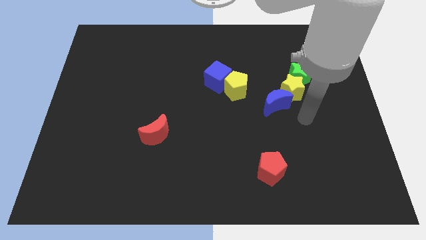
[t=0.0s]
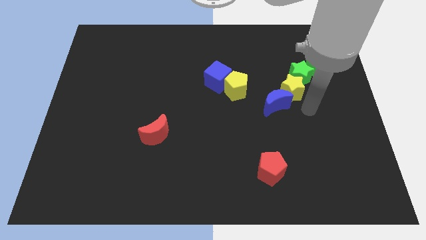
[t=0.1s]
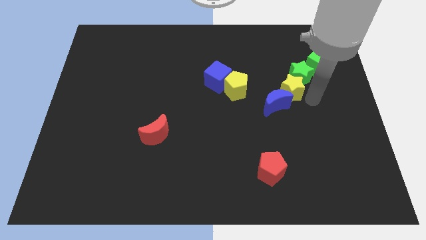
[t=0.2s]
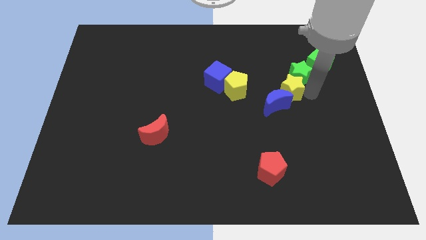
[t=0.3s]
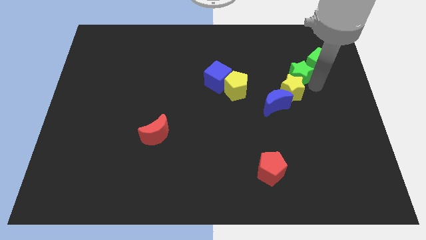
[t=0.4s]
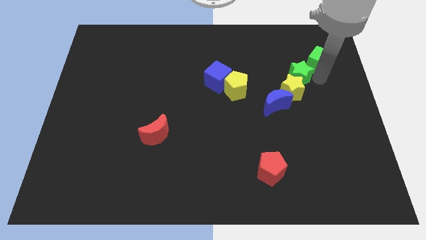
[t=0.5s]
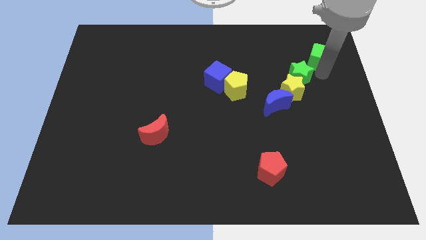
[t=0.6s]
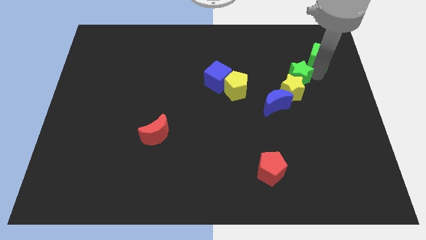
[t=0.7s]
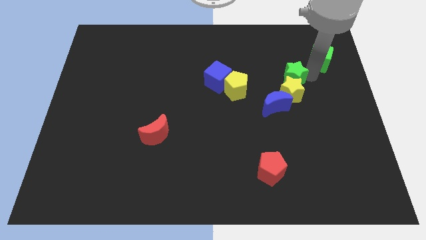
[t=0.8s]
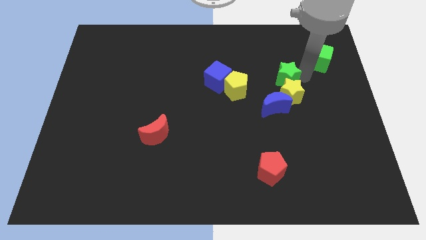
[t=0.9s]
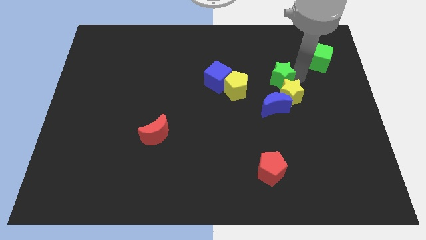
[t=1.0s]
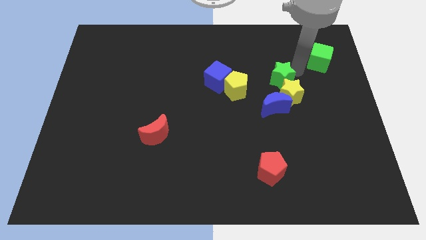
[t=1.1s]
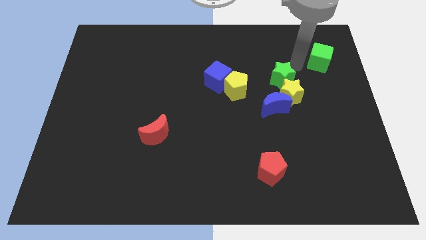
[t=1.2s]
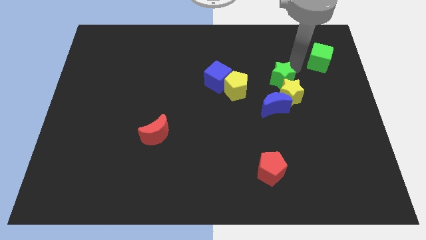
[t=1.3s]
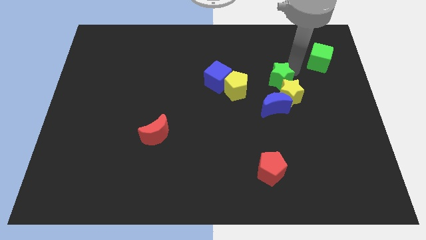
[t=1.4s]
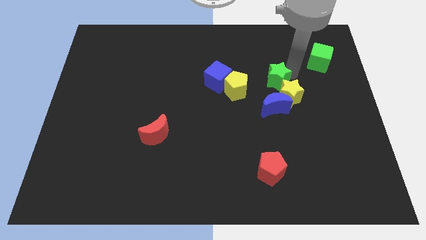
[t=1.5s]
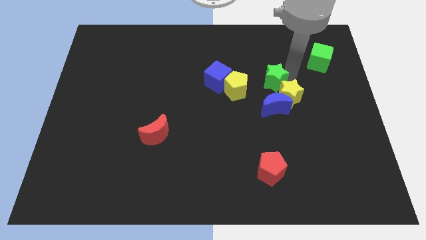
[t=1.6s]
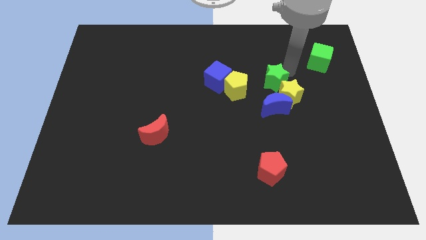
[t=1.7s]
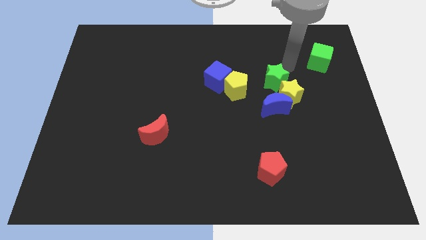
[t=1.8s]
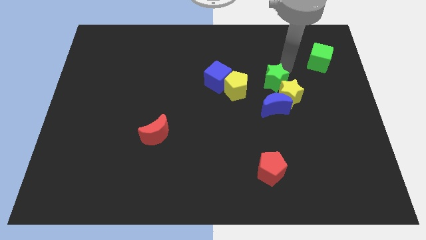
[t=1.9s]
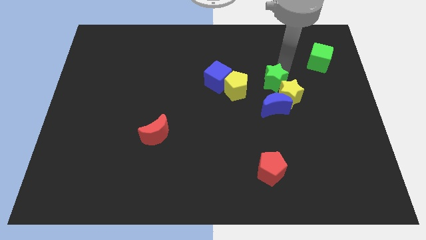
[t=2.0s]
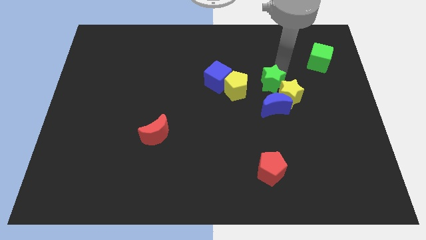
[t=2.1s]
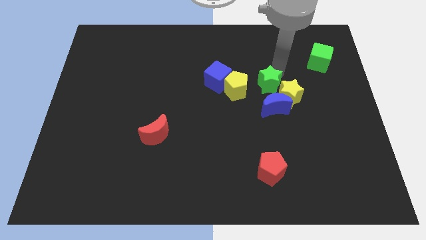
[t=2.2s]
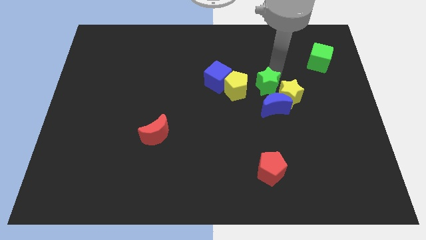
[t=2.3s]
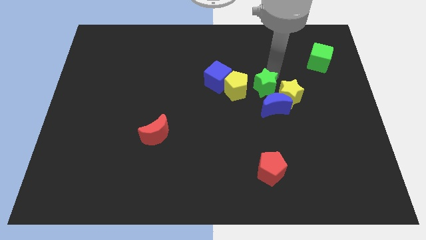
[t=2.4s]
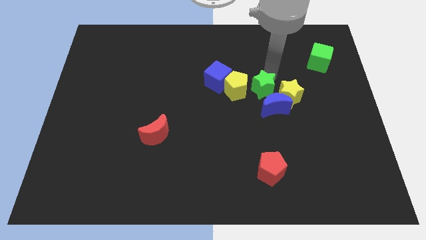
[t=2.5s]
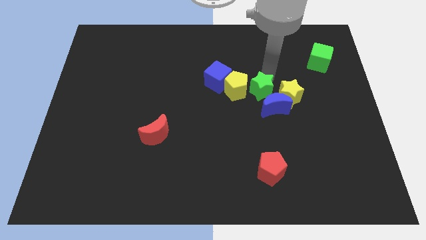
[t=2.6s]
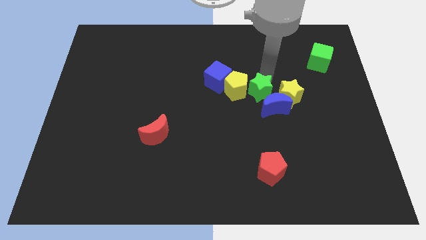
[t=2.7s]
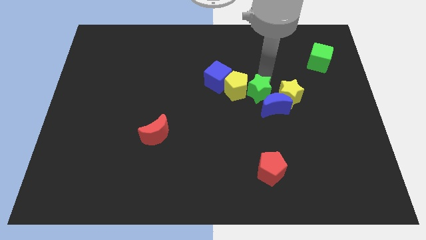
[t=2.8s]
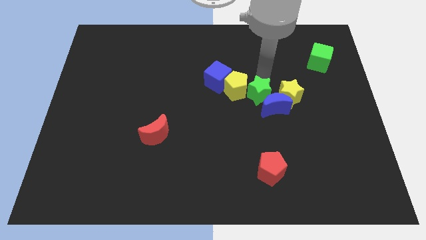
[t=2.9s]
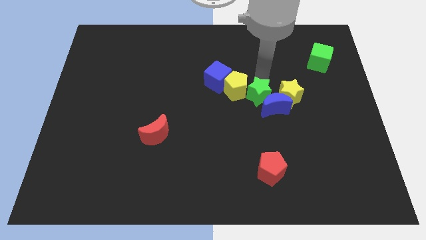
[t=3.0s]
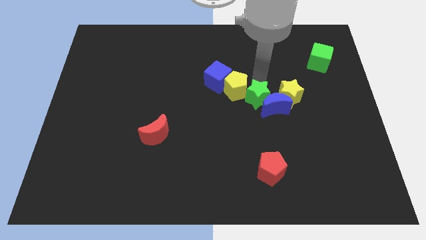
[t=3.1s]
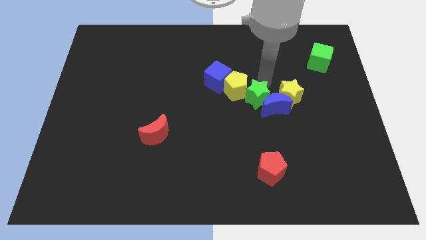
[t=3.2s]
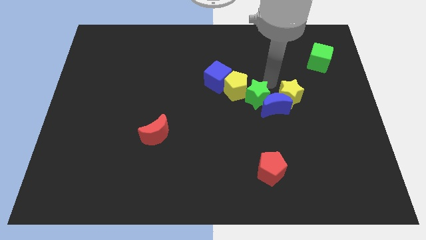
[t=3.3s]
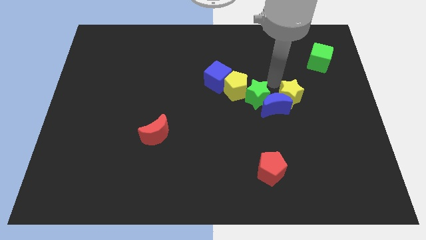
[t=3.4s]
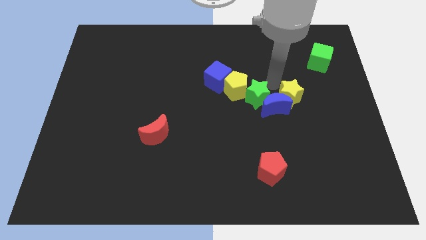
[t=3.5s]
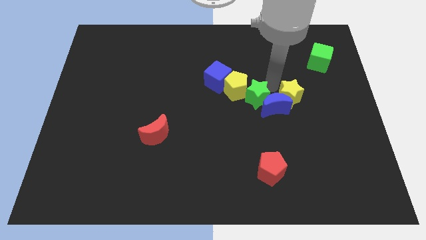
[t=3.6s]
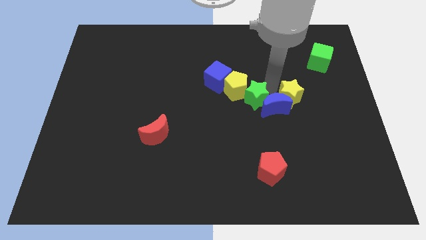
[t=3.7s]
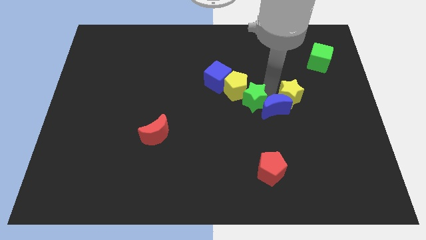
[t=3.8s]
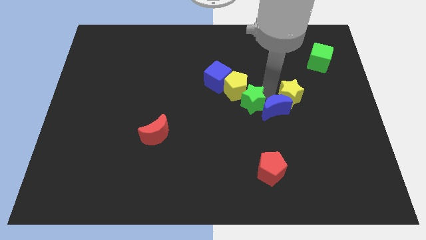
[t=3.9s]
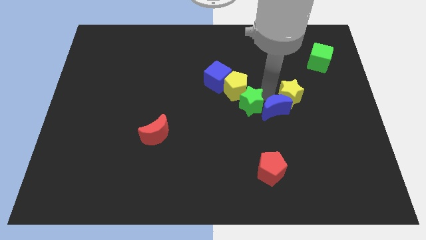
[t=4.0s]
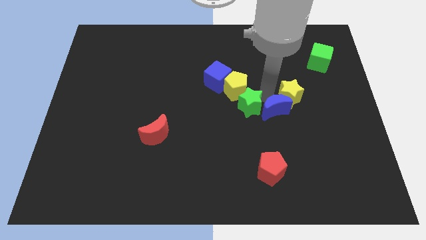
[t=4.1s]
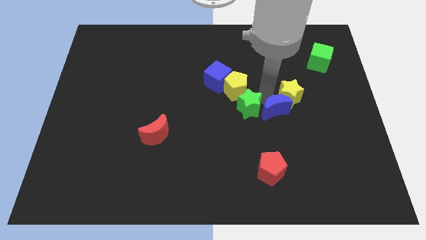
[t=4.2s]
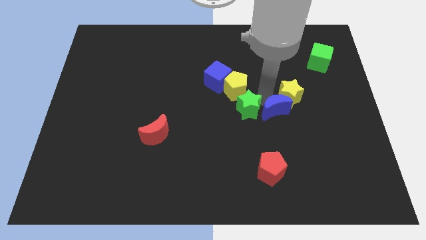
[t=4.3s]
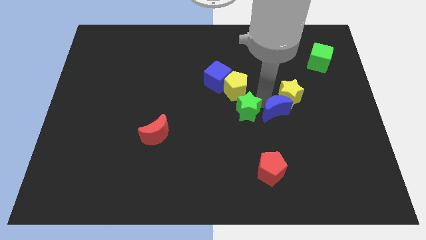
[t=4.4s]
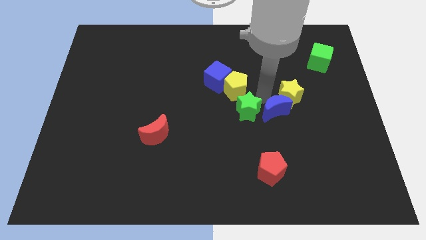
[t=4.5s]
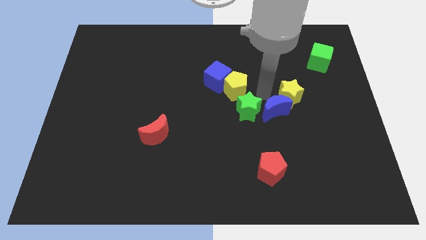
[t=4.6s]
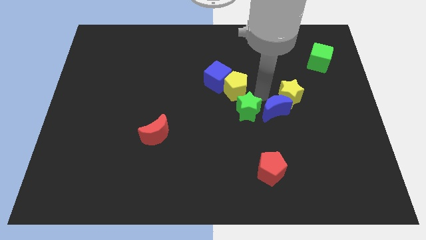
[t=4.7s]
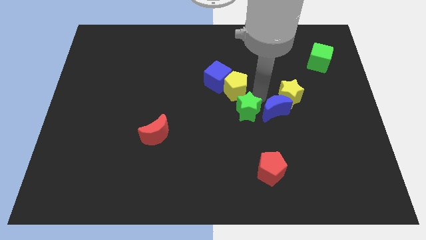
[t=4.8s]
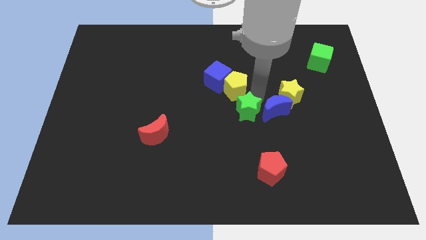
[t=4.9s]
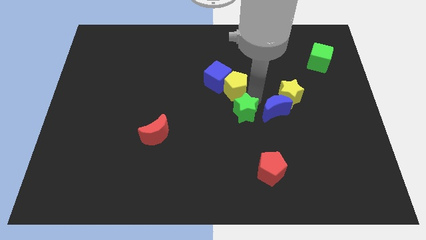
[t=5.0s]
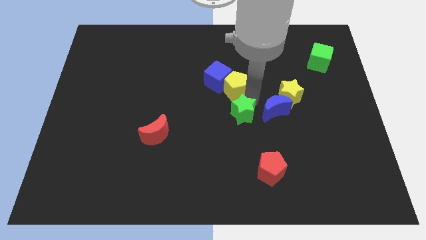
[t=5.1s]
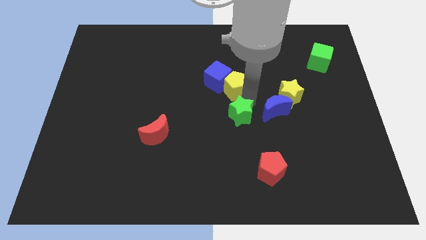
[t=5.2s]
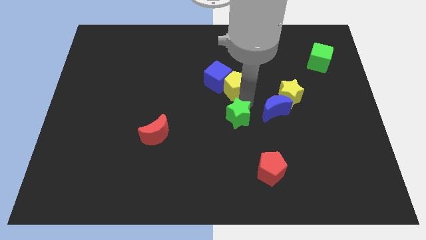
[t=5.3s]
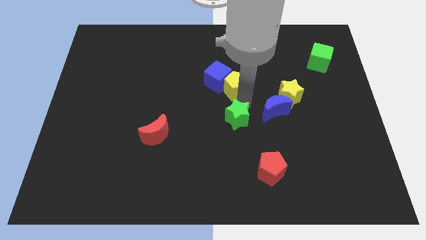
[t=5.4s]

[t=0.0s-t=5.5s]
push the green star diagonally downwards and to the left

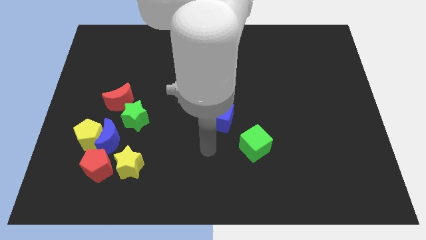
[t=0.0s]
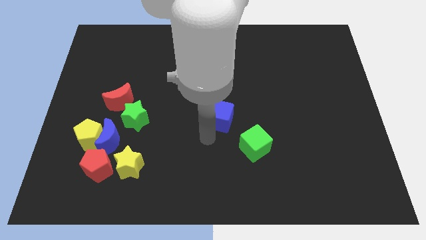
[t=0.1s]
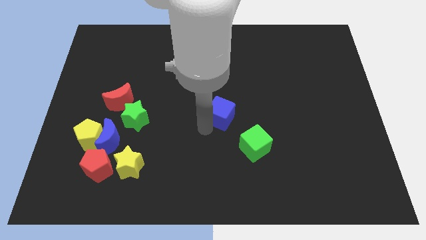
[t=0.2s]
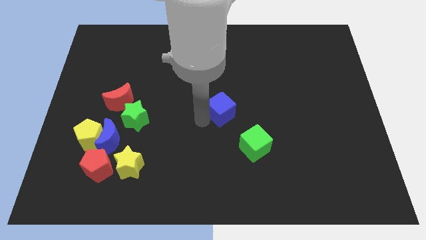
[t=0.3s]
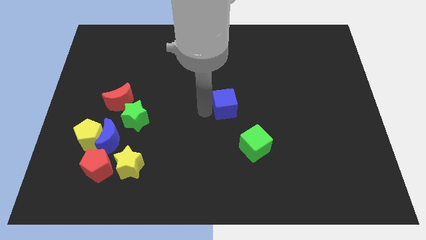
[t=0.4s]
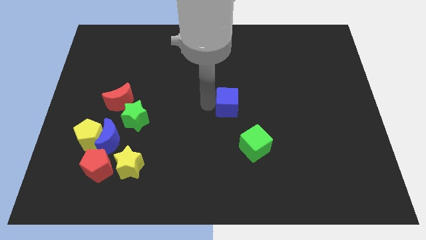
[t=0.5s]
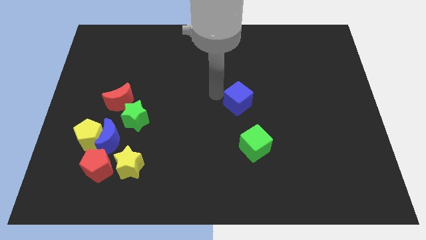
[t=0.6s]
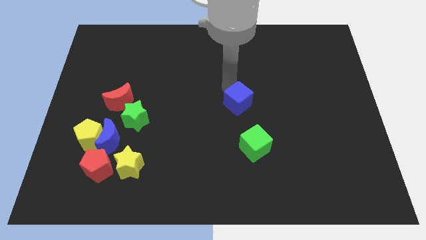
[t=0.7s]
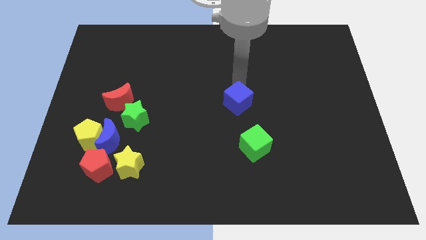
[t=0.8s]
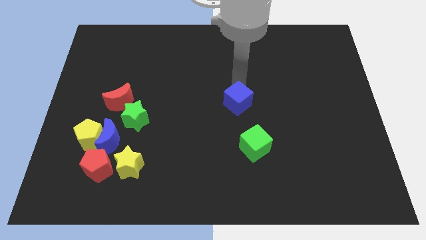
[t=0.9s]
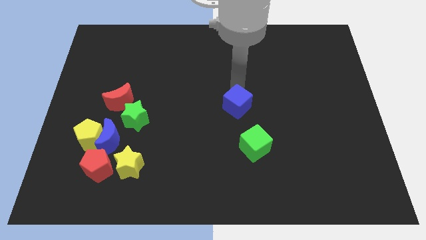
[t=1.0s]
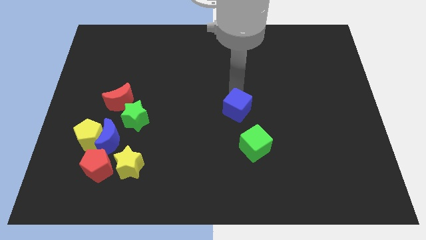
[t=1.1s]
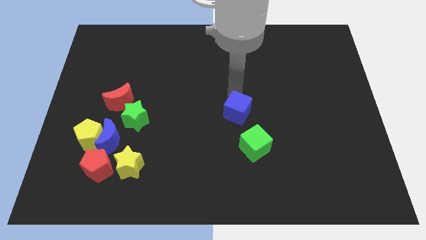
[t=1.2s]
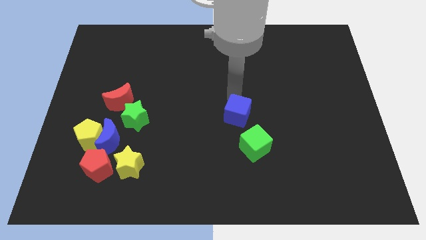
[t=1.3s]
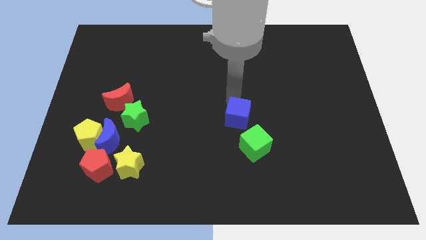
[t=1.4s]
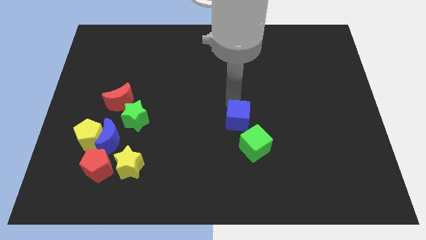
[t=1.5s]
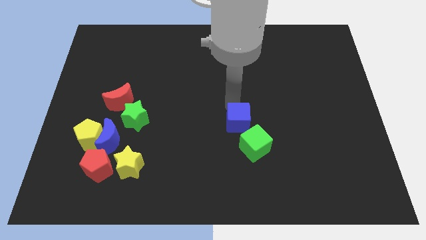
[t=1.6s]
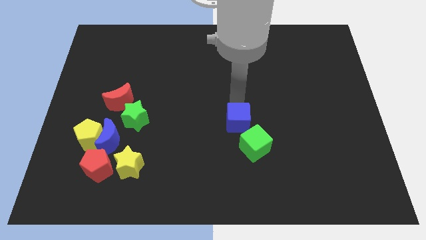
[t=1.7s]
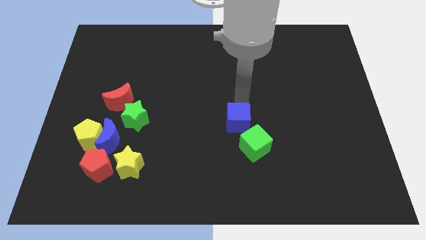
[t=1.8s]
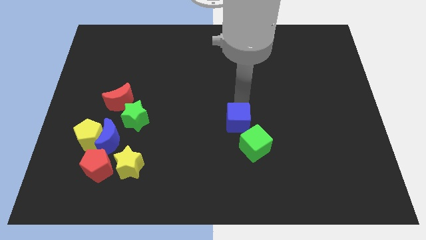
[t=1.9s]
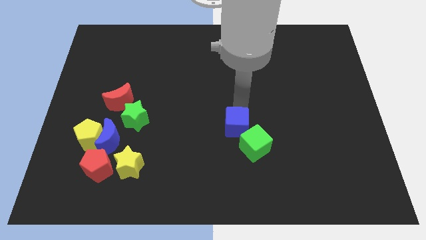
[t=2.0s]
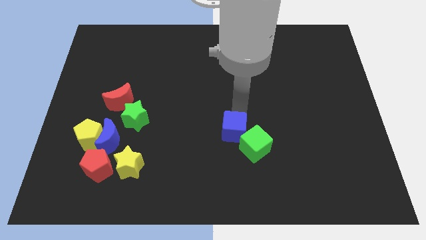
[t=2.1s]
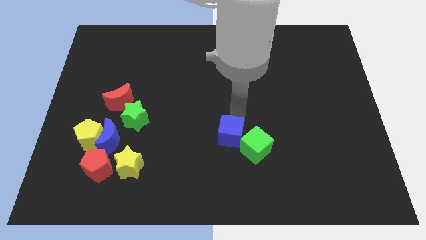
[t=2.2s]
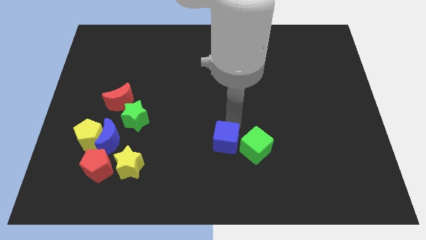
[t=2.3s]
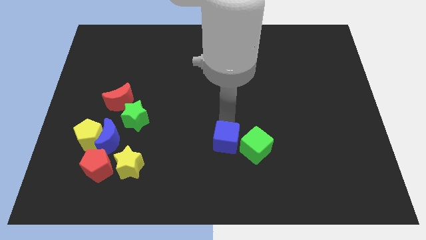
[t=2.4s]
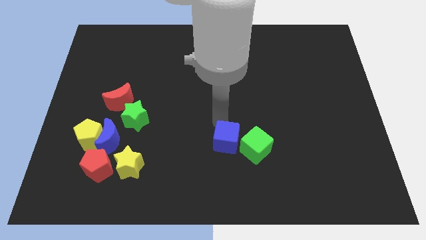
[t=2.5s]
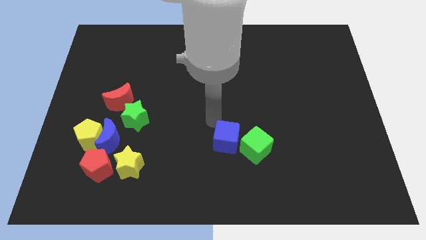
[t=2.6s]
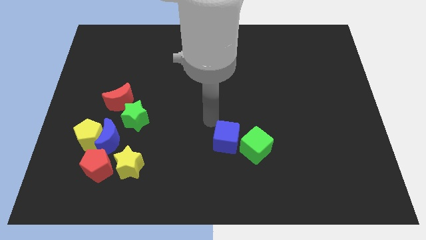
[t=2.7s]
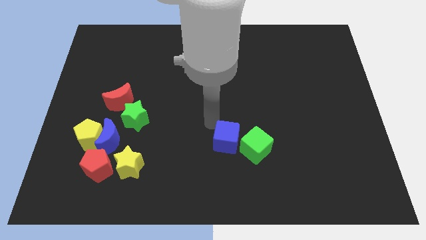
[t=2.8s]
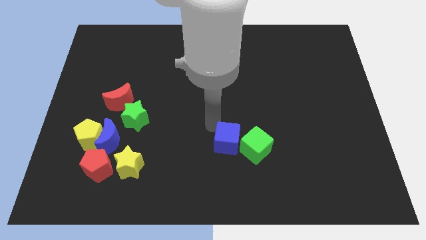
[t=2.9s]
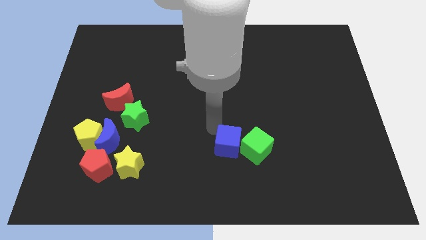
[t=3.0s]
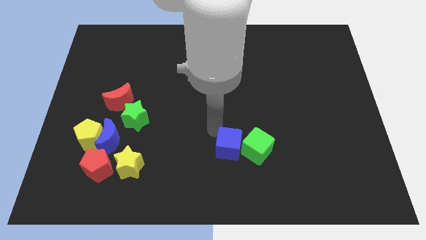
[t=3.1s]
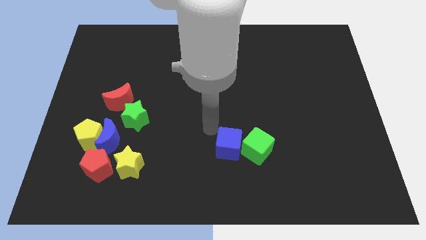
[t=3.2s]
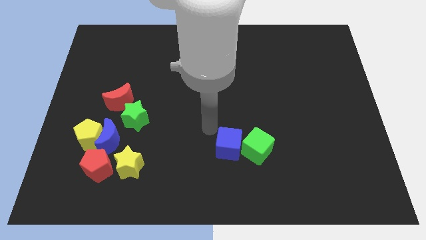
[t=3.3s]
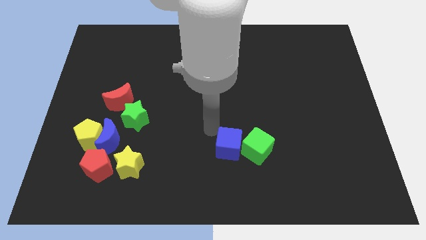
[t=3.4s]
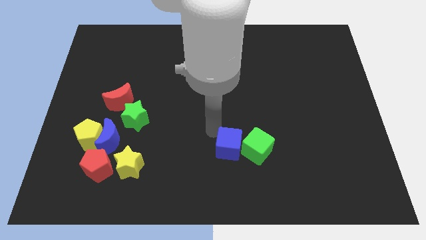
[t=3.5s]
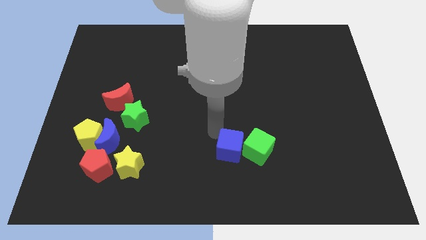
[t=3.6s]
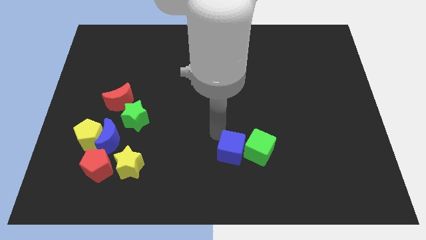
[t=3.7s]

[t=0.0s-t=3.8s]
move the blue cube a little down and to the right
